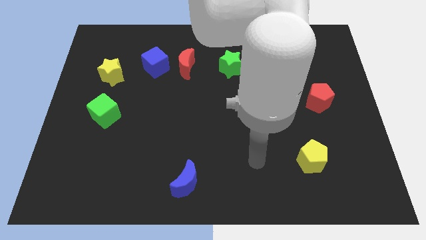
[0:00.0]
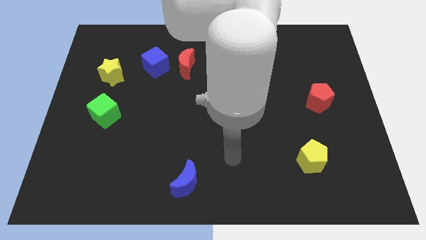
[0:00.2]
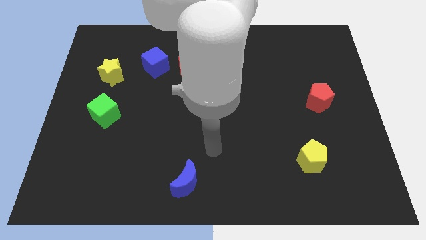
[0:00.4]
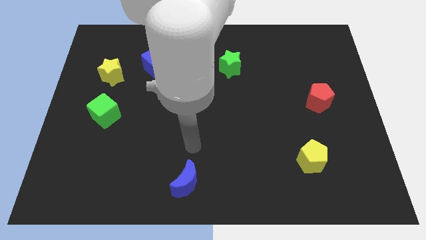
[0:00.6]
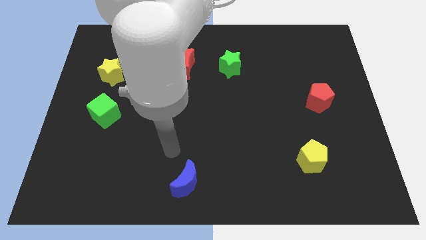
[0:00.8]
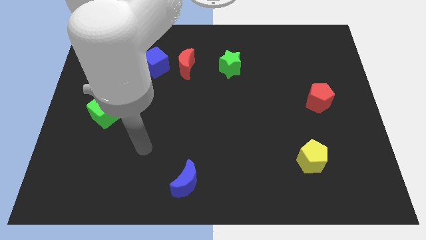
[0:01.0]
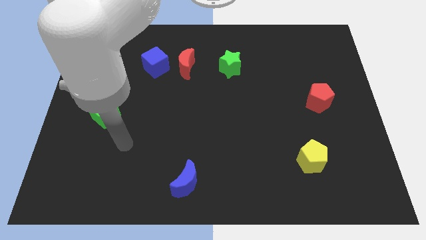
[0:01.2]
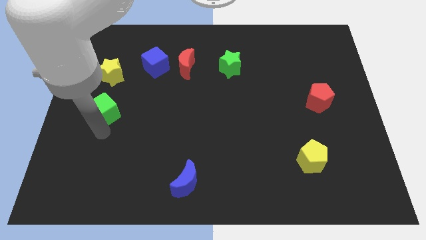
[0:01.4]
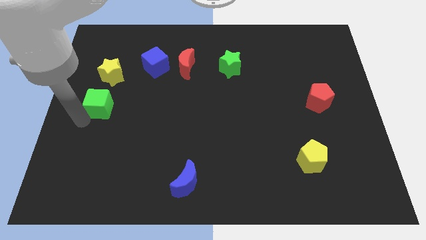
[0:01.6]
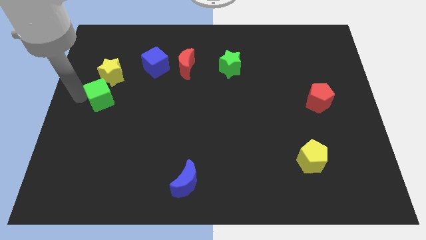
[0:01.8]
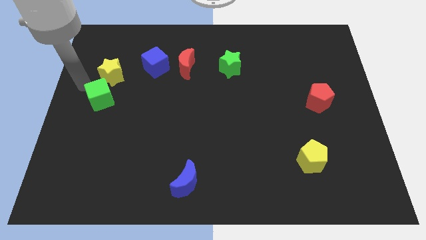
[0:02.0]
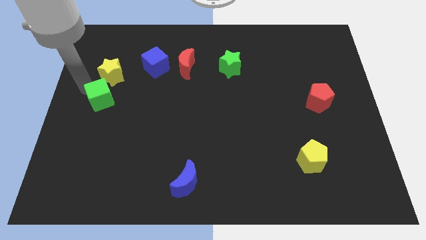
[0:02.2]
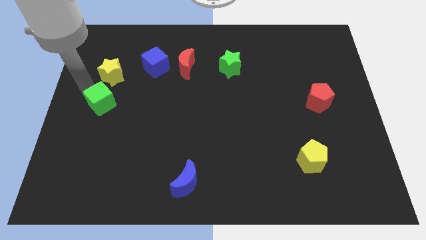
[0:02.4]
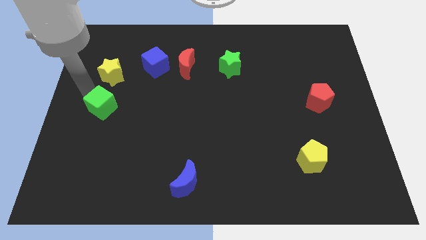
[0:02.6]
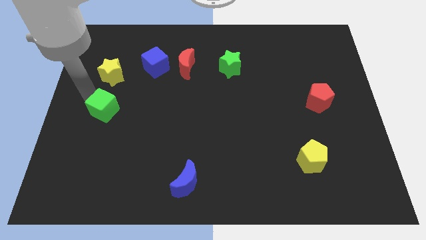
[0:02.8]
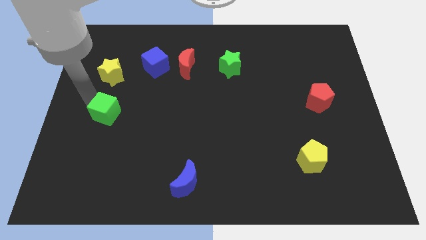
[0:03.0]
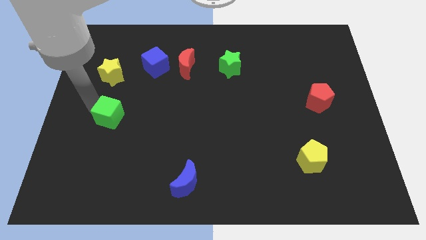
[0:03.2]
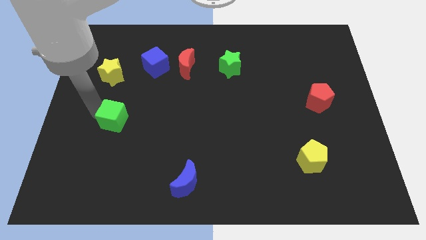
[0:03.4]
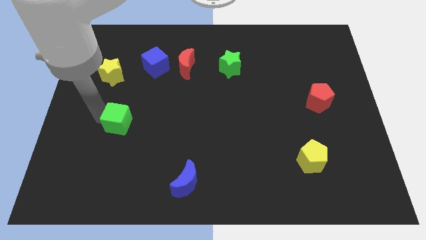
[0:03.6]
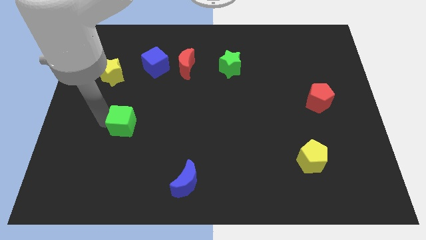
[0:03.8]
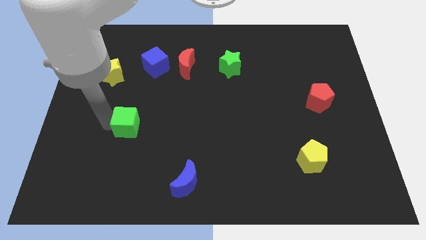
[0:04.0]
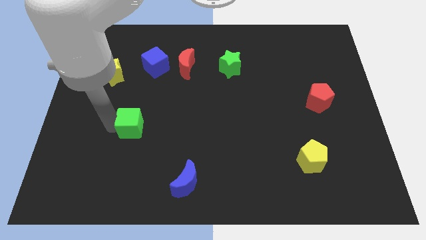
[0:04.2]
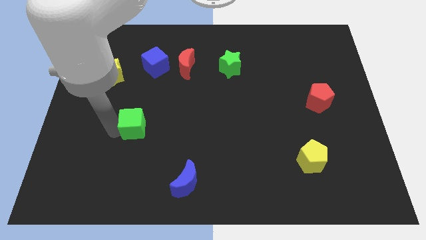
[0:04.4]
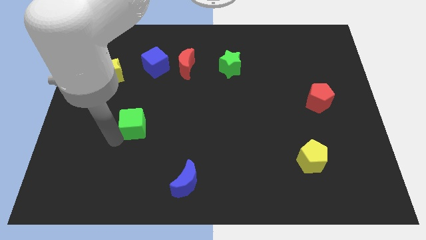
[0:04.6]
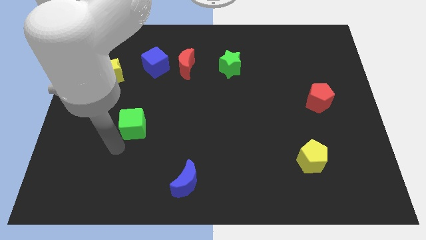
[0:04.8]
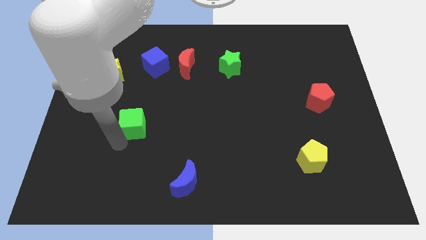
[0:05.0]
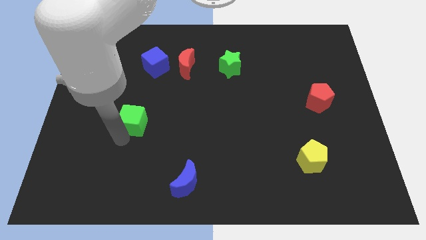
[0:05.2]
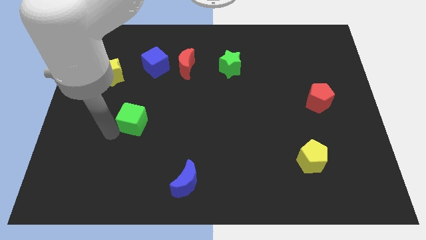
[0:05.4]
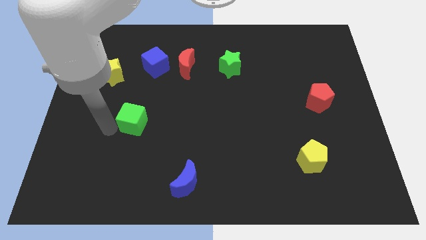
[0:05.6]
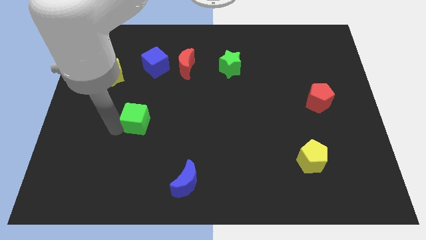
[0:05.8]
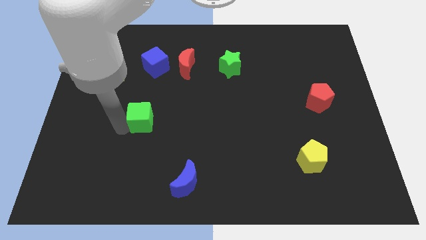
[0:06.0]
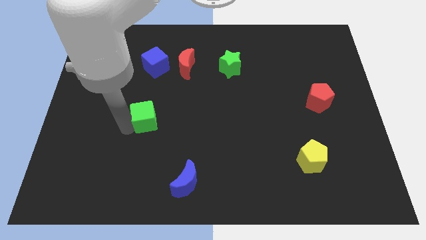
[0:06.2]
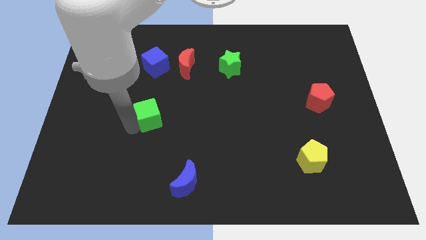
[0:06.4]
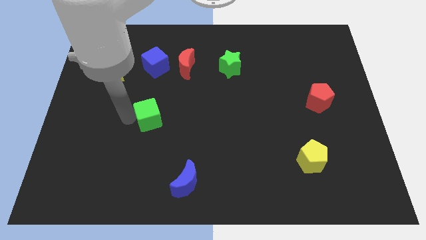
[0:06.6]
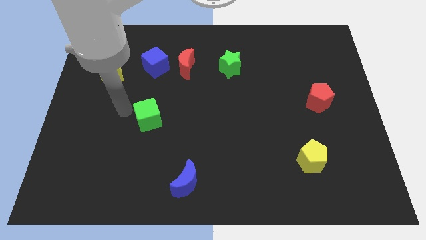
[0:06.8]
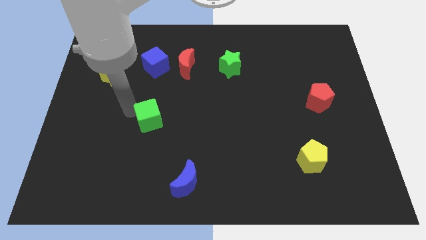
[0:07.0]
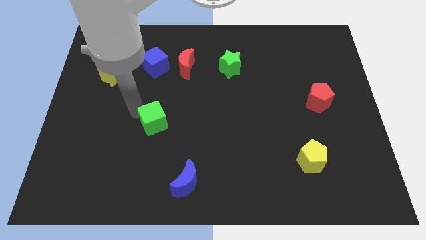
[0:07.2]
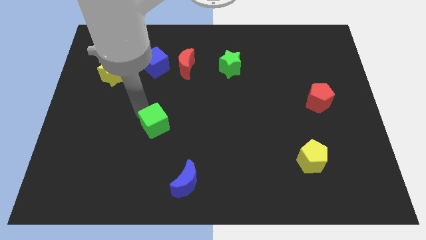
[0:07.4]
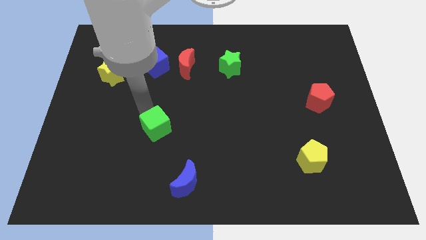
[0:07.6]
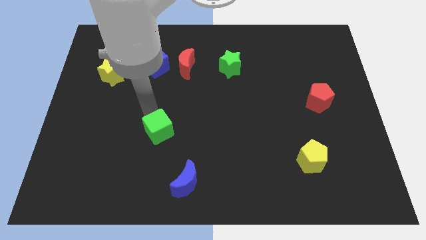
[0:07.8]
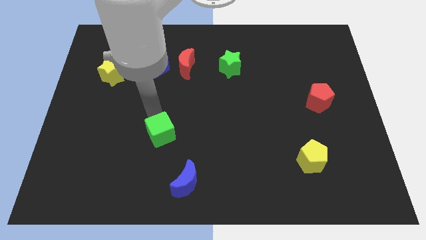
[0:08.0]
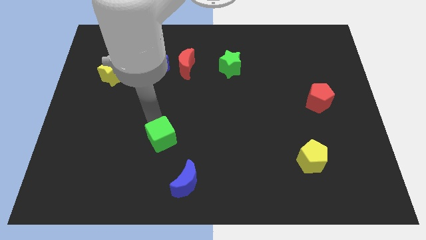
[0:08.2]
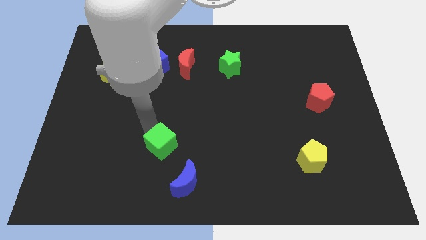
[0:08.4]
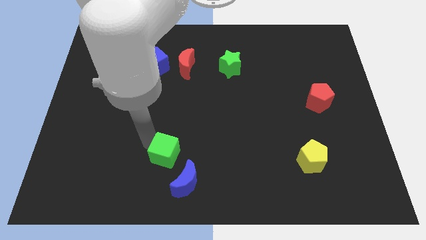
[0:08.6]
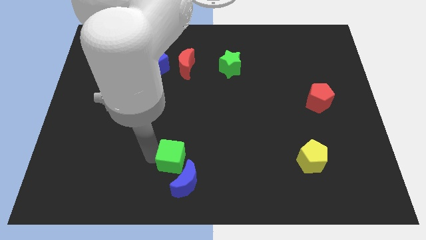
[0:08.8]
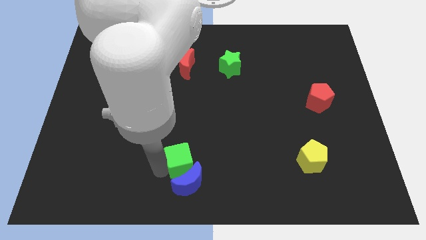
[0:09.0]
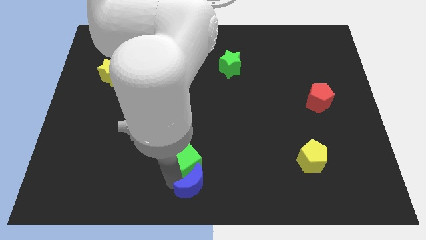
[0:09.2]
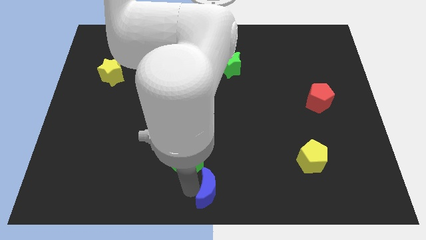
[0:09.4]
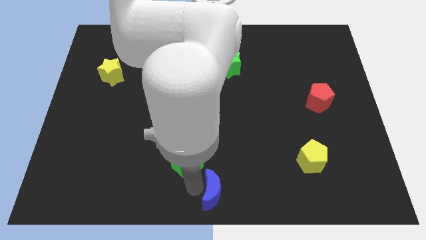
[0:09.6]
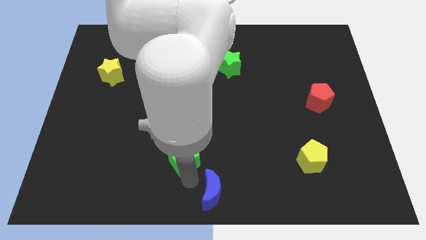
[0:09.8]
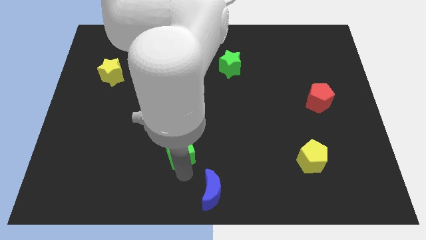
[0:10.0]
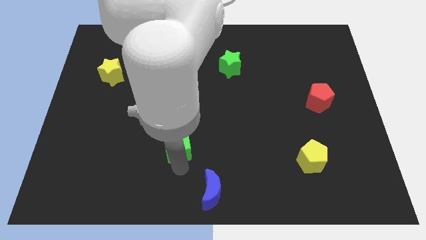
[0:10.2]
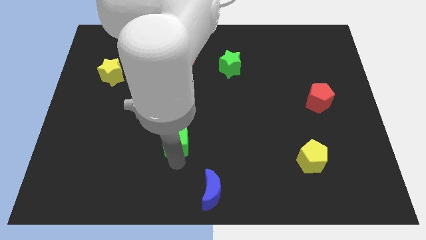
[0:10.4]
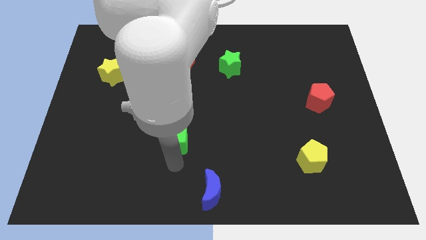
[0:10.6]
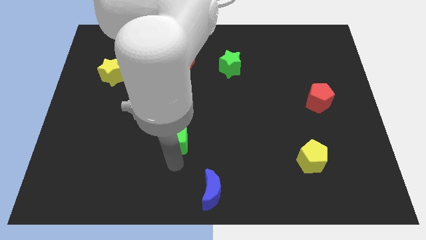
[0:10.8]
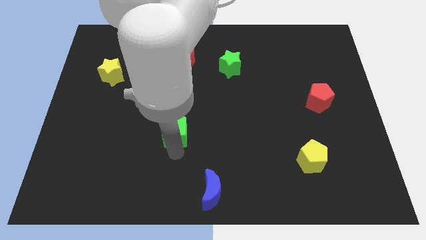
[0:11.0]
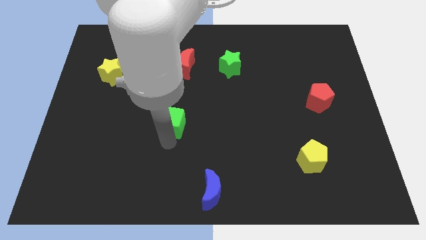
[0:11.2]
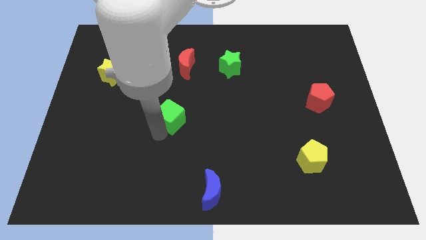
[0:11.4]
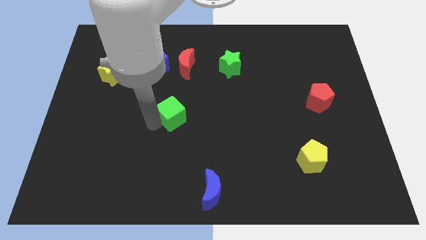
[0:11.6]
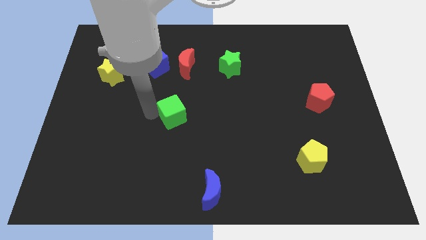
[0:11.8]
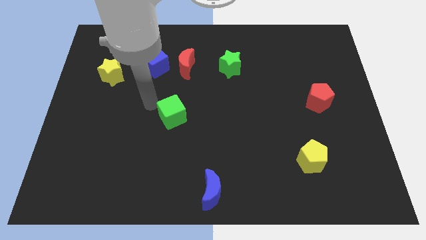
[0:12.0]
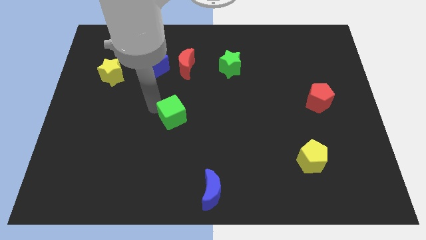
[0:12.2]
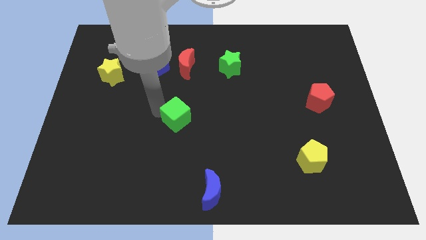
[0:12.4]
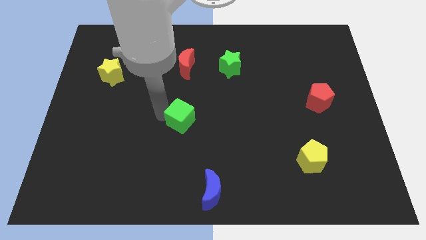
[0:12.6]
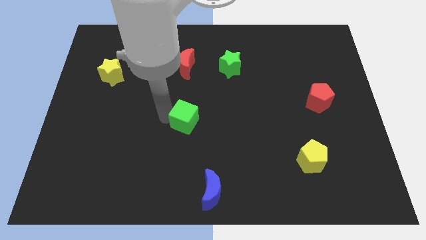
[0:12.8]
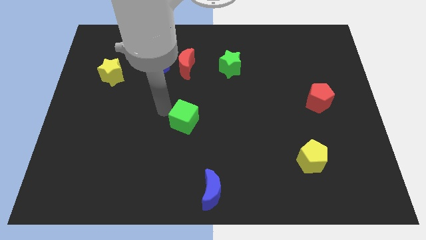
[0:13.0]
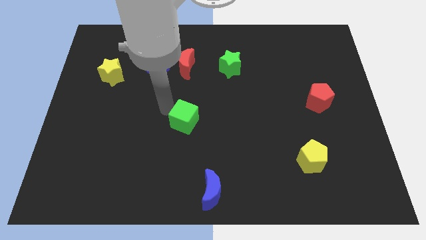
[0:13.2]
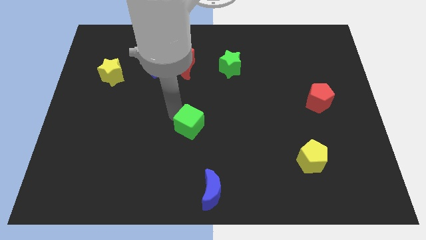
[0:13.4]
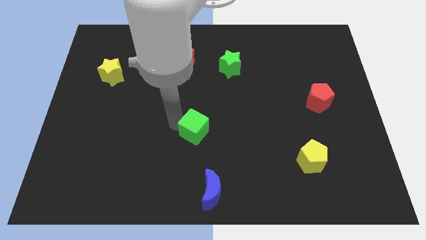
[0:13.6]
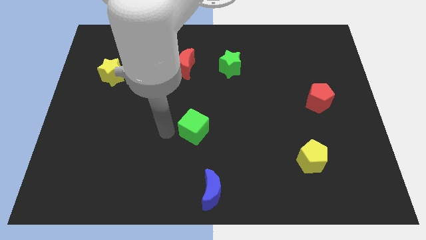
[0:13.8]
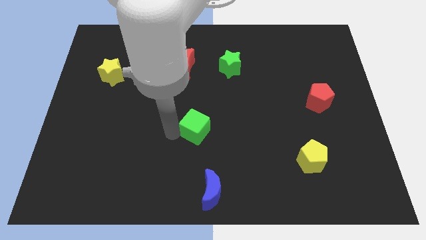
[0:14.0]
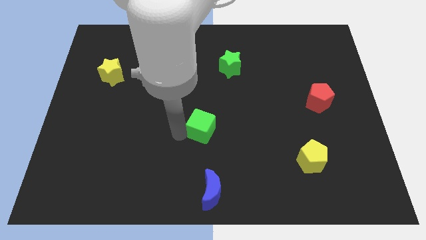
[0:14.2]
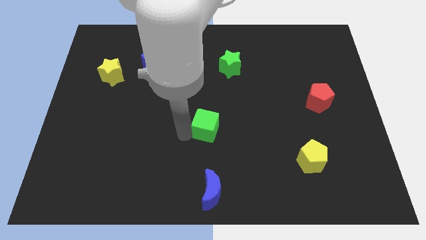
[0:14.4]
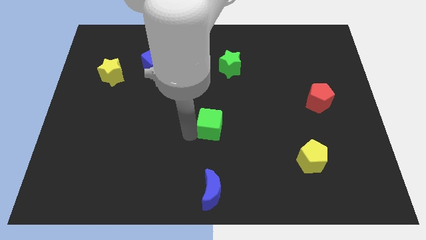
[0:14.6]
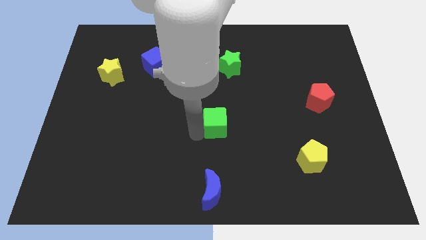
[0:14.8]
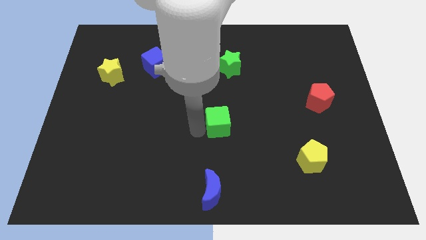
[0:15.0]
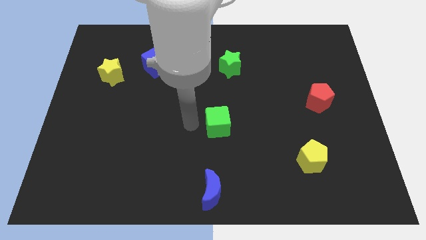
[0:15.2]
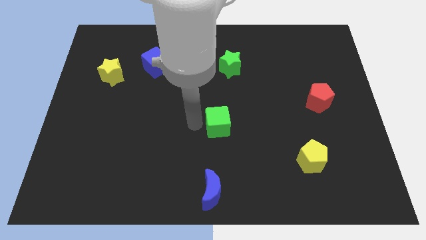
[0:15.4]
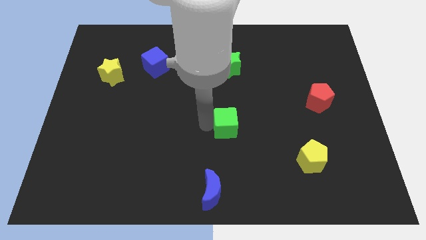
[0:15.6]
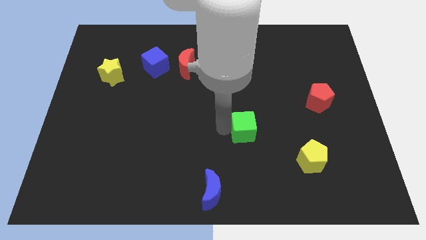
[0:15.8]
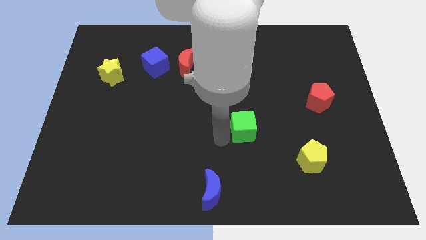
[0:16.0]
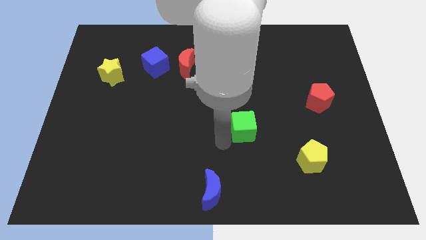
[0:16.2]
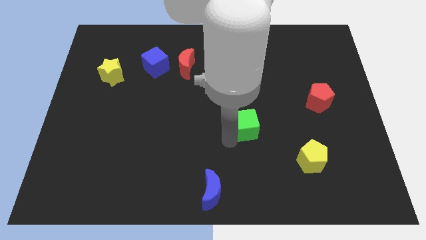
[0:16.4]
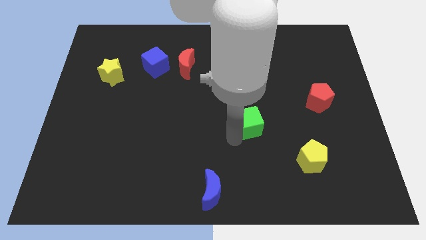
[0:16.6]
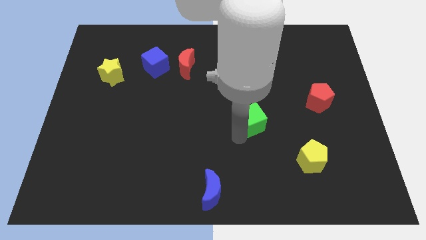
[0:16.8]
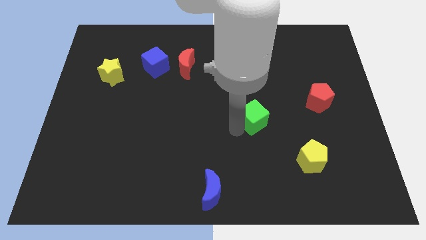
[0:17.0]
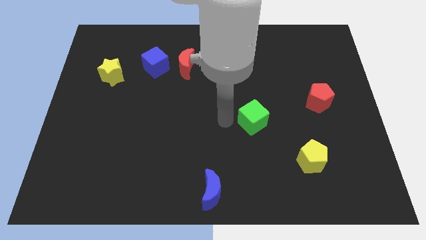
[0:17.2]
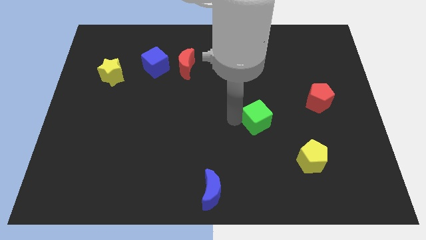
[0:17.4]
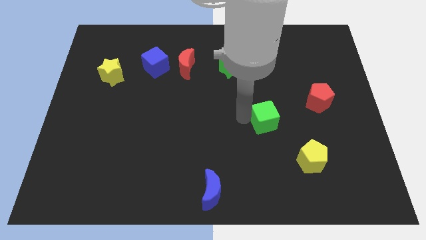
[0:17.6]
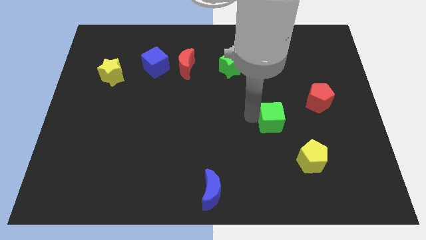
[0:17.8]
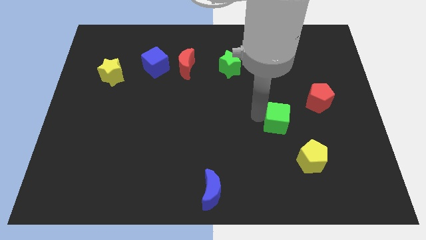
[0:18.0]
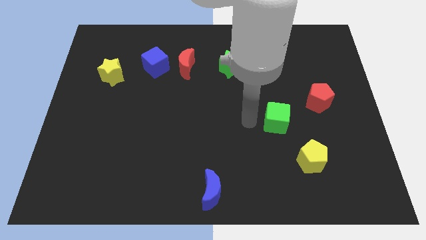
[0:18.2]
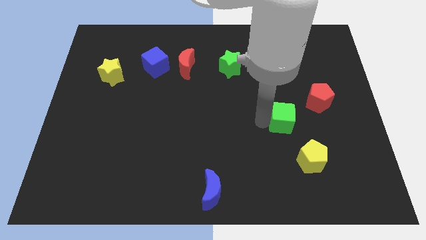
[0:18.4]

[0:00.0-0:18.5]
move the green cube to the top side of the yellow pentagon
